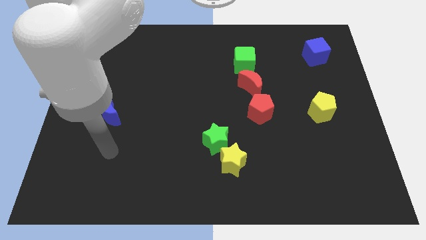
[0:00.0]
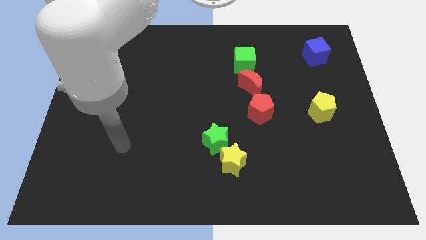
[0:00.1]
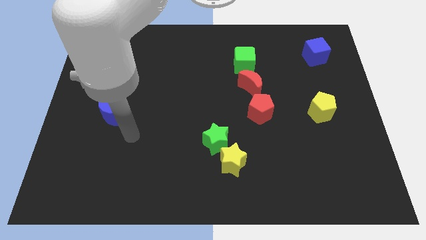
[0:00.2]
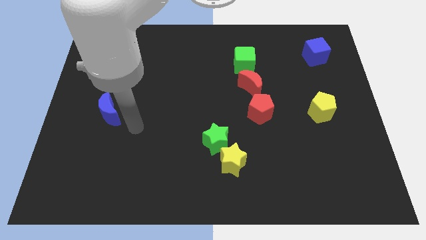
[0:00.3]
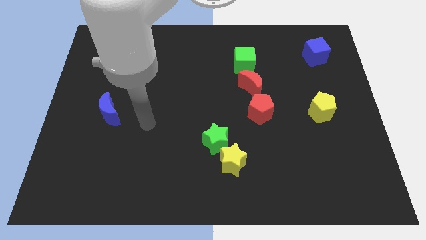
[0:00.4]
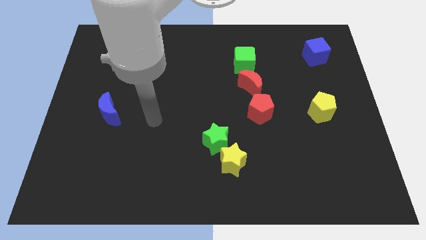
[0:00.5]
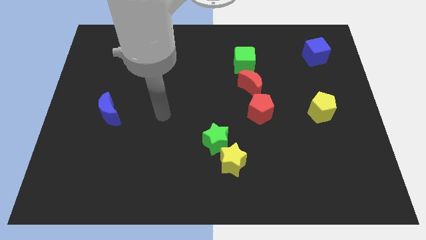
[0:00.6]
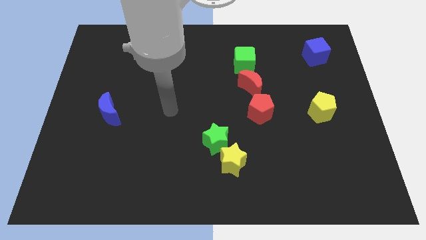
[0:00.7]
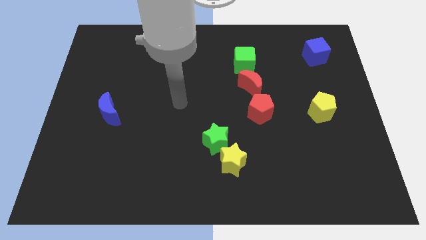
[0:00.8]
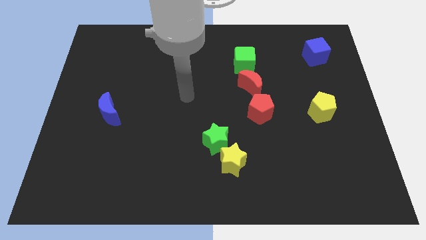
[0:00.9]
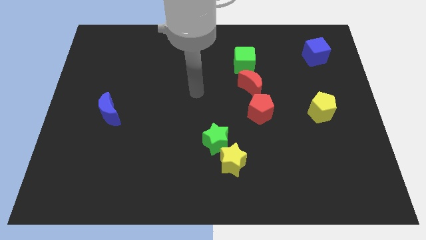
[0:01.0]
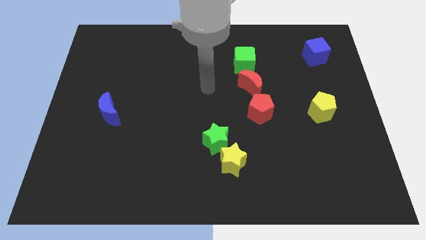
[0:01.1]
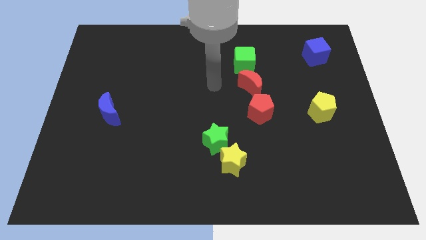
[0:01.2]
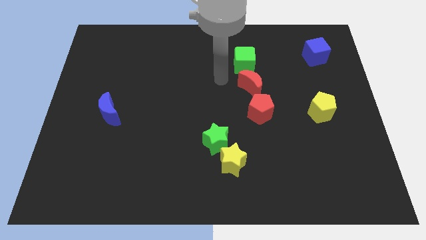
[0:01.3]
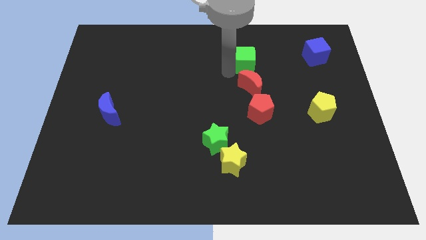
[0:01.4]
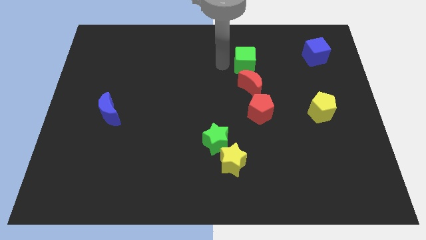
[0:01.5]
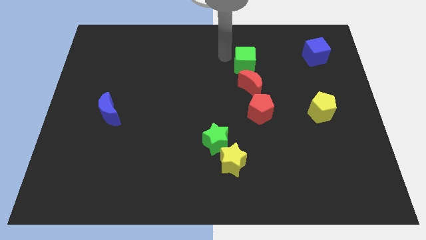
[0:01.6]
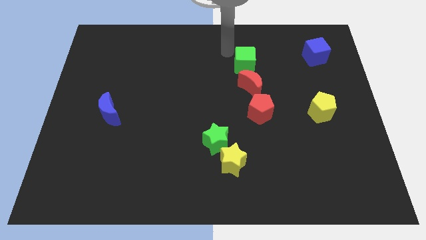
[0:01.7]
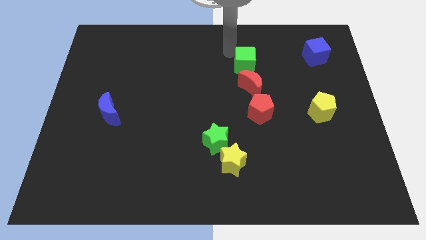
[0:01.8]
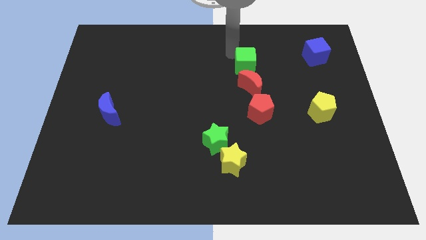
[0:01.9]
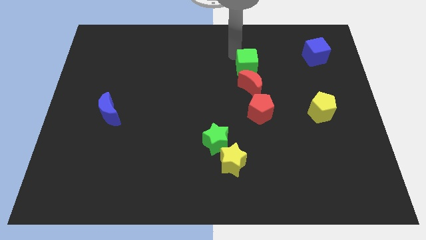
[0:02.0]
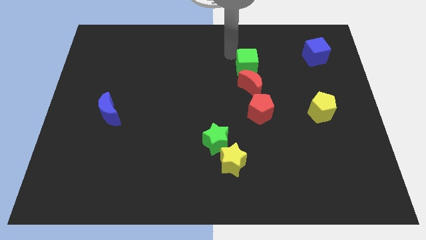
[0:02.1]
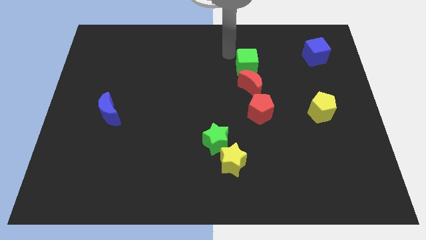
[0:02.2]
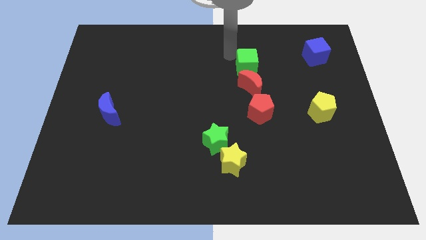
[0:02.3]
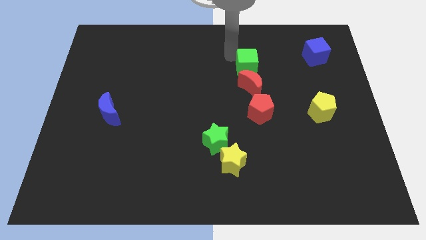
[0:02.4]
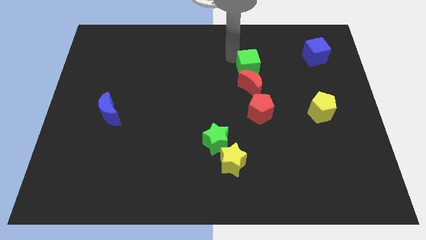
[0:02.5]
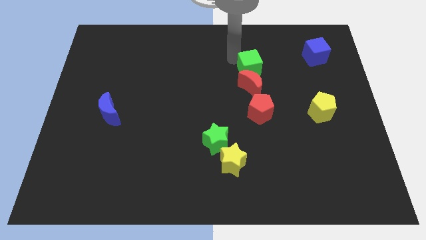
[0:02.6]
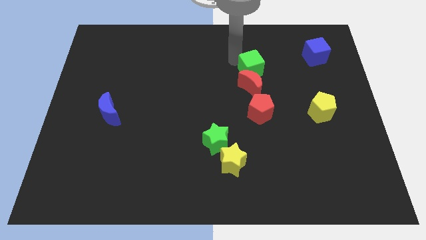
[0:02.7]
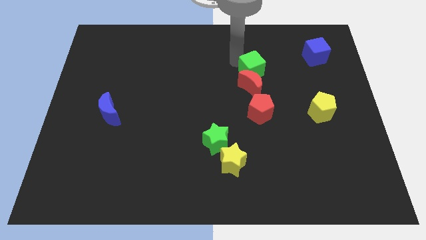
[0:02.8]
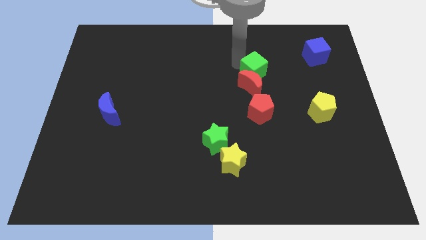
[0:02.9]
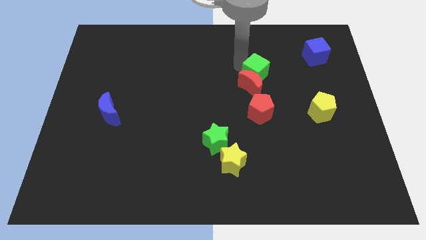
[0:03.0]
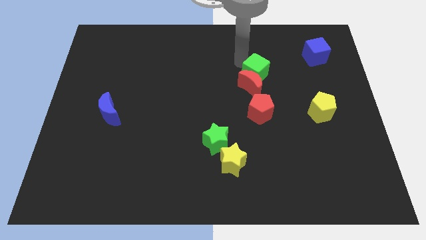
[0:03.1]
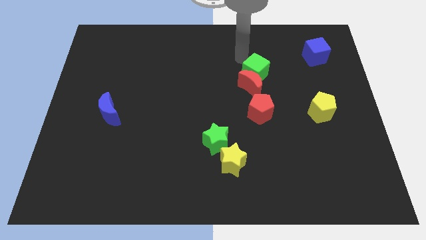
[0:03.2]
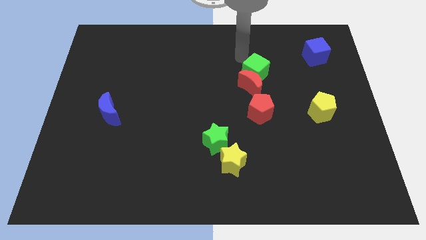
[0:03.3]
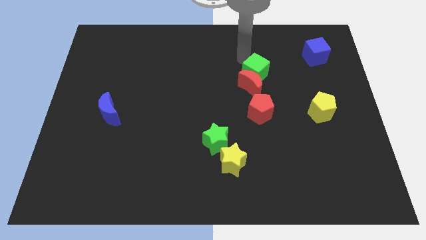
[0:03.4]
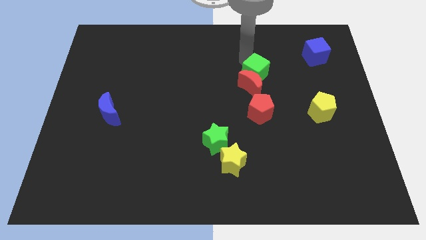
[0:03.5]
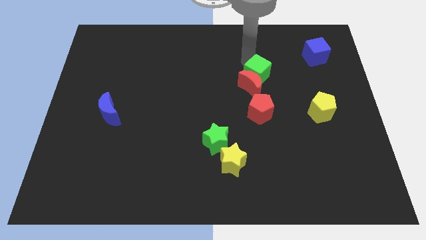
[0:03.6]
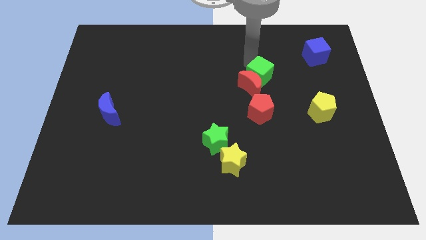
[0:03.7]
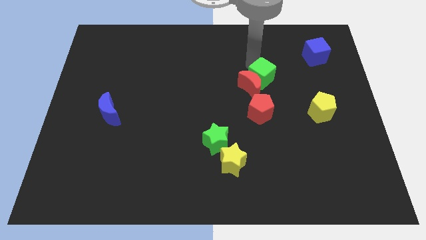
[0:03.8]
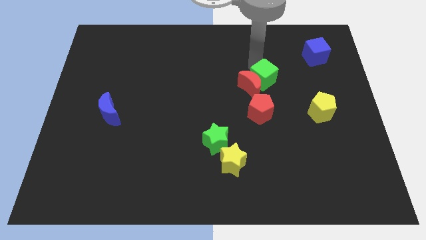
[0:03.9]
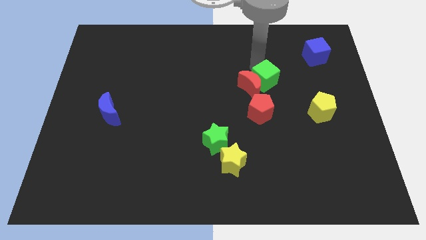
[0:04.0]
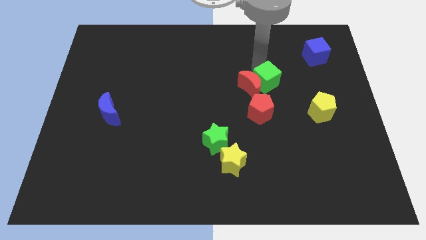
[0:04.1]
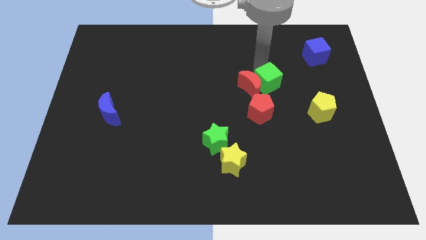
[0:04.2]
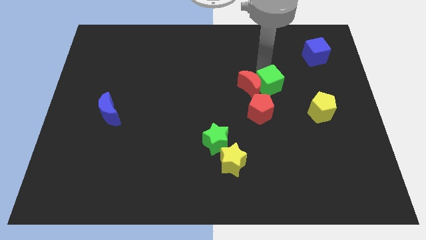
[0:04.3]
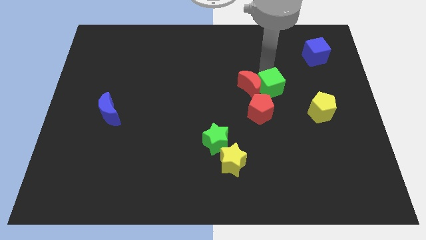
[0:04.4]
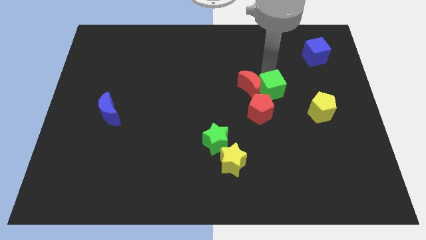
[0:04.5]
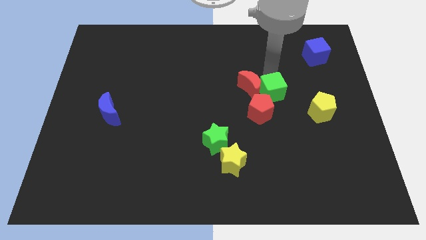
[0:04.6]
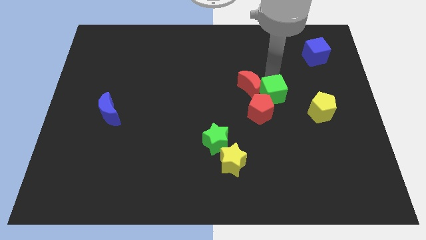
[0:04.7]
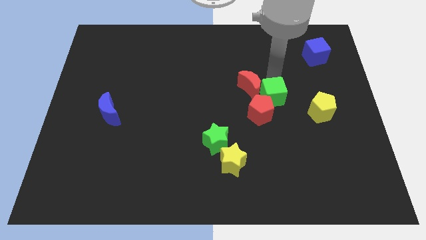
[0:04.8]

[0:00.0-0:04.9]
slide the green cube to the left side of the yellow pentagon

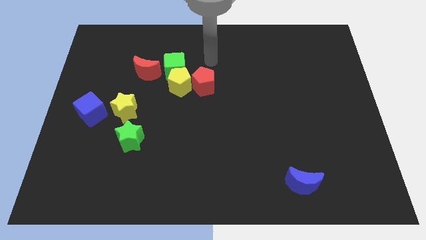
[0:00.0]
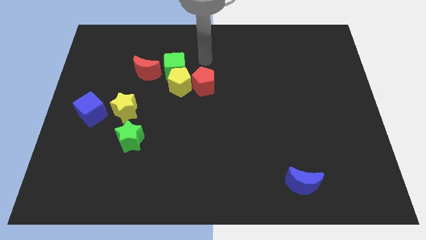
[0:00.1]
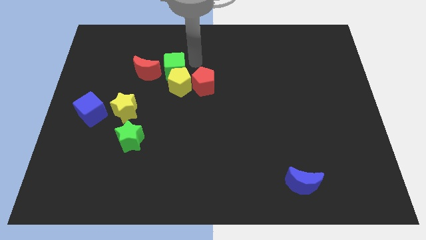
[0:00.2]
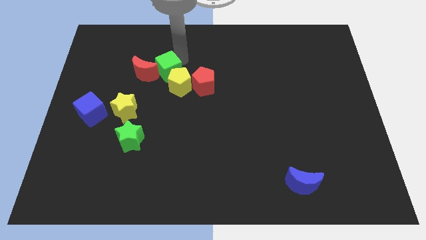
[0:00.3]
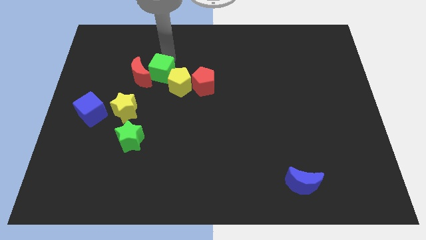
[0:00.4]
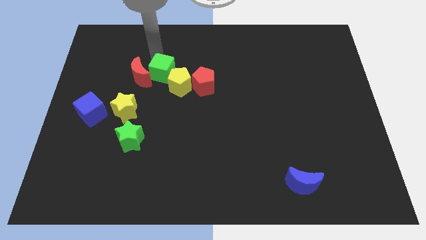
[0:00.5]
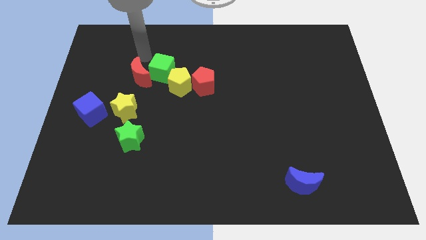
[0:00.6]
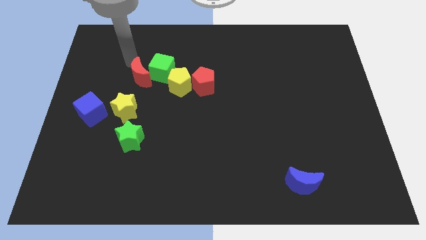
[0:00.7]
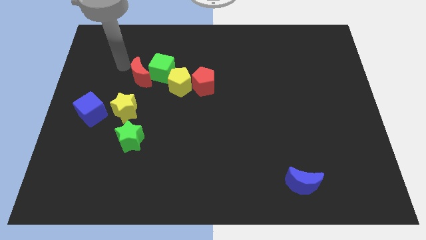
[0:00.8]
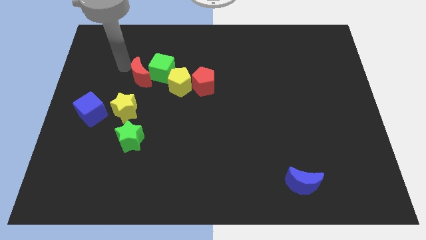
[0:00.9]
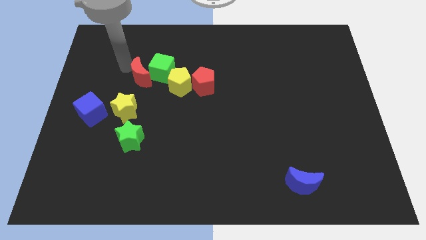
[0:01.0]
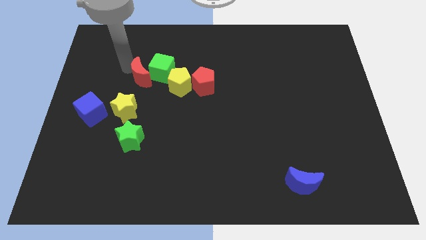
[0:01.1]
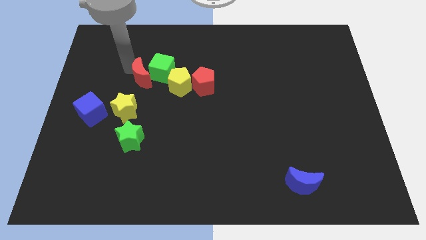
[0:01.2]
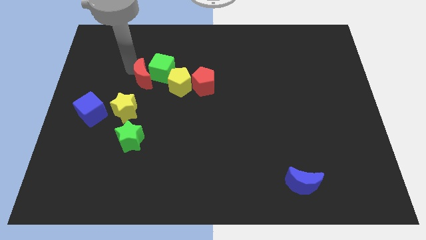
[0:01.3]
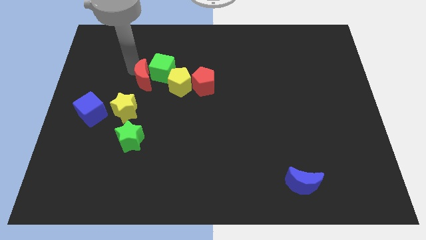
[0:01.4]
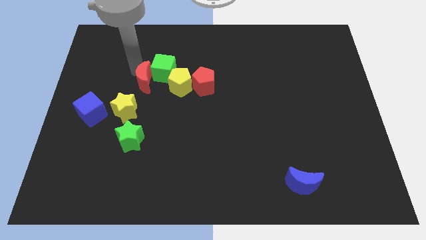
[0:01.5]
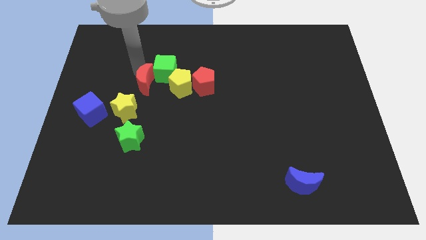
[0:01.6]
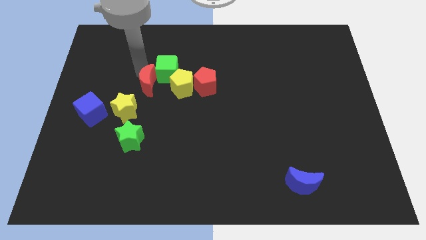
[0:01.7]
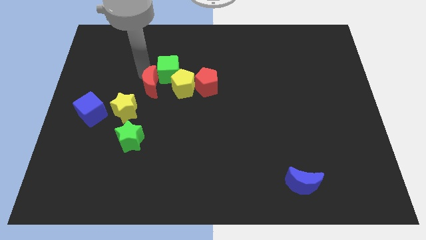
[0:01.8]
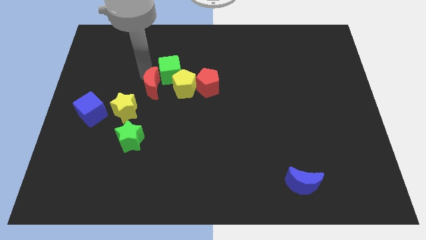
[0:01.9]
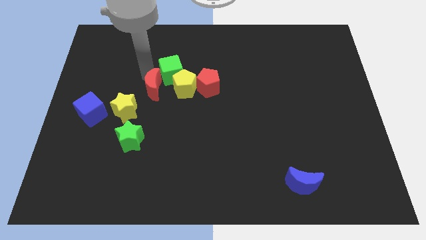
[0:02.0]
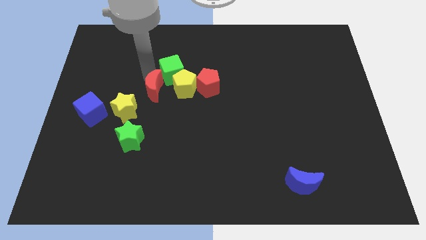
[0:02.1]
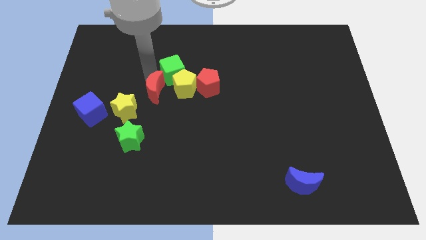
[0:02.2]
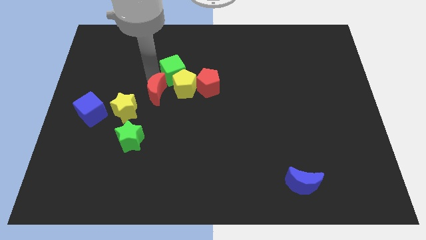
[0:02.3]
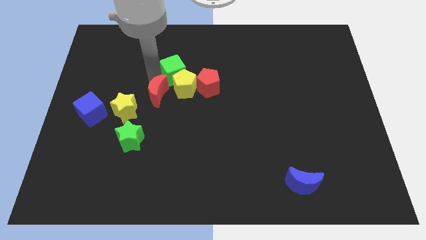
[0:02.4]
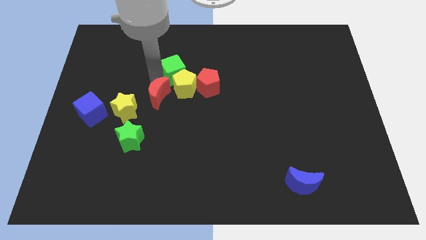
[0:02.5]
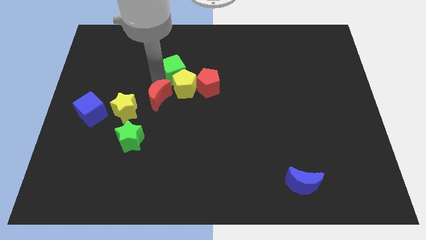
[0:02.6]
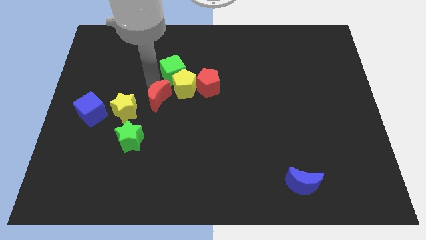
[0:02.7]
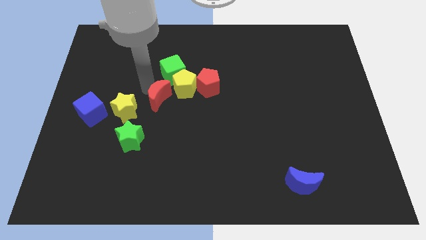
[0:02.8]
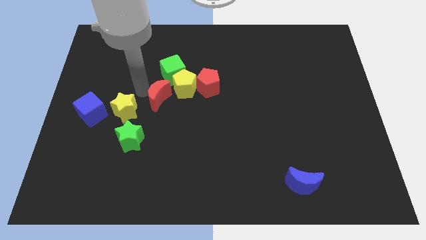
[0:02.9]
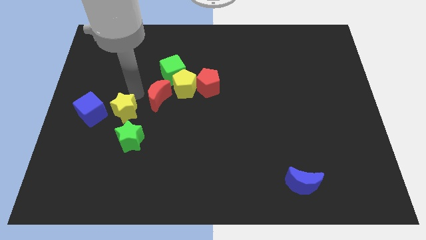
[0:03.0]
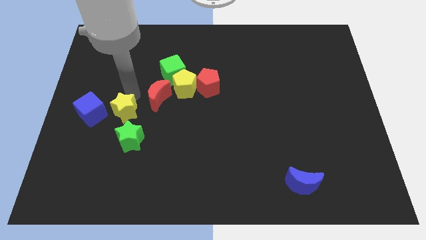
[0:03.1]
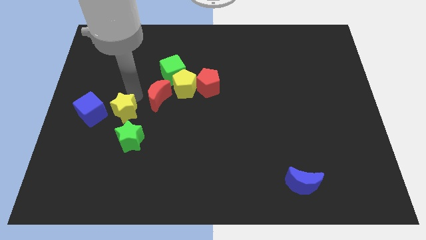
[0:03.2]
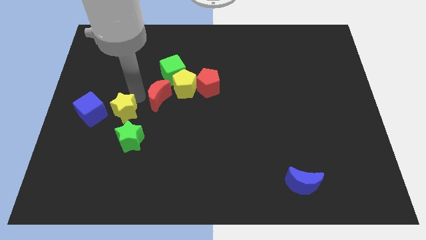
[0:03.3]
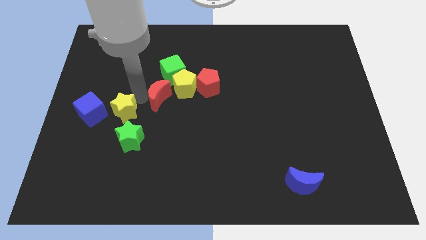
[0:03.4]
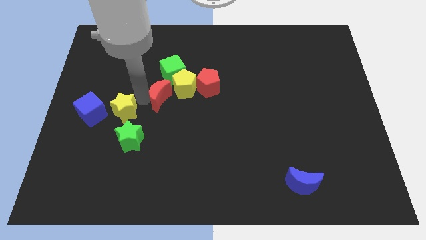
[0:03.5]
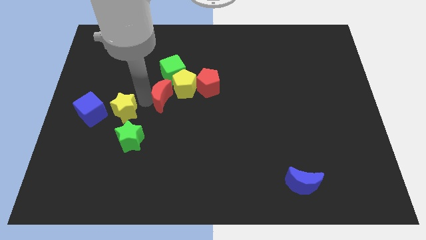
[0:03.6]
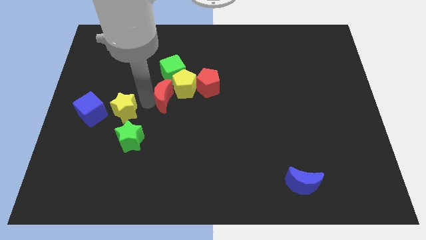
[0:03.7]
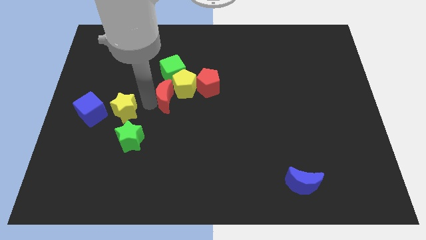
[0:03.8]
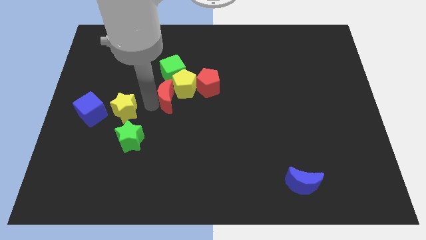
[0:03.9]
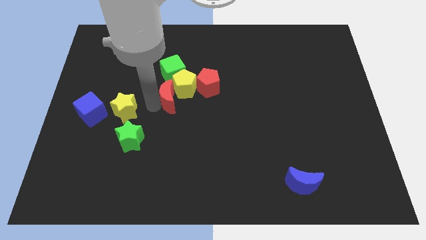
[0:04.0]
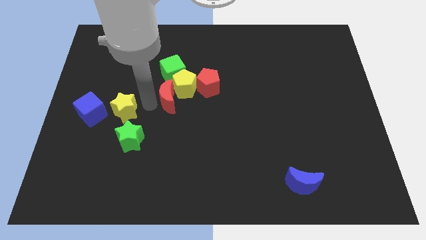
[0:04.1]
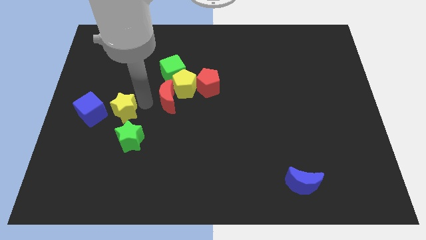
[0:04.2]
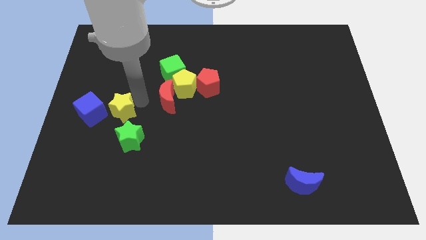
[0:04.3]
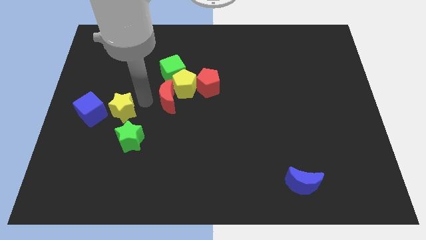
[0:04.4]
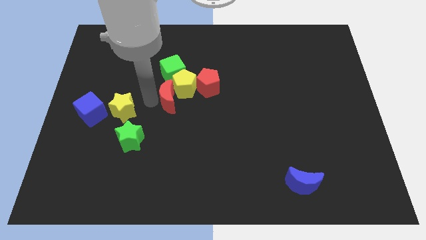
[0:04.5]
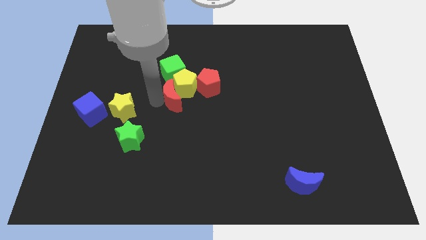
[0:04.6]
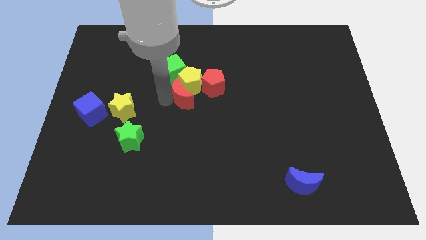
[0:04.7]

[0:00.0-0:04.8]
push the red moon to the bottom right of the yellow pentagon
